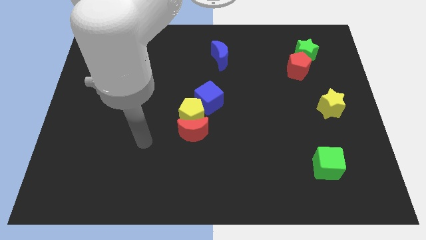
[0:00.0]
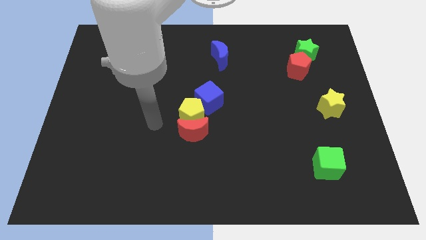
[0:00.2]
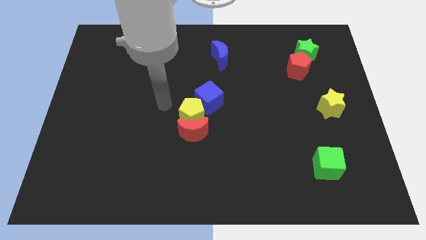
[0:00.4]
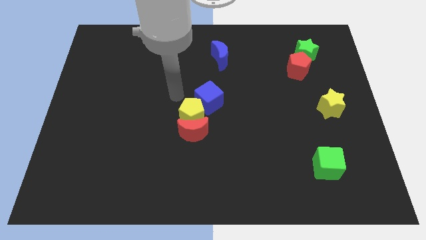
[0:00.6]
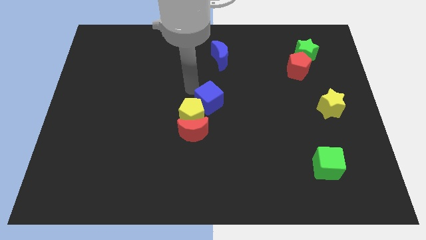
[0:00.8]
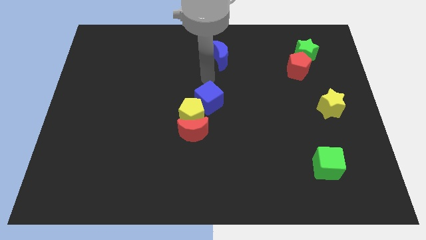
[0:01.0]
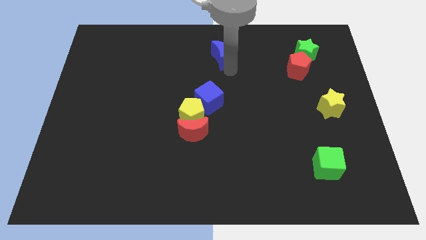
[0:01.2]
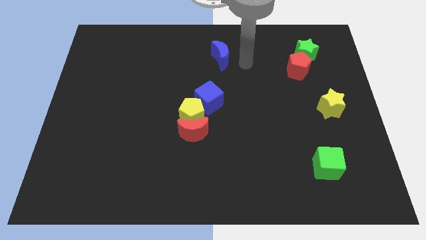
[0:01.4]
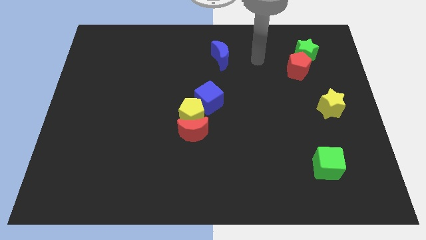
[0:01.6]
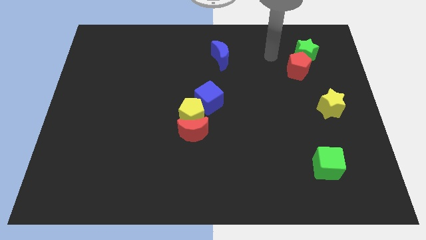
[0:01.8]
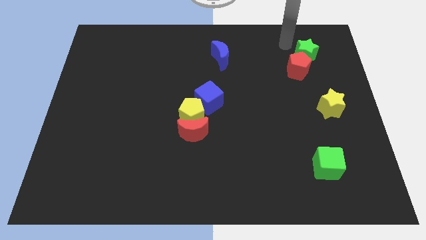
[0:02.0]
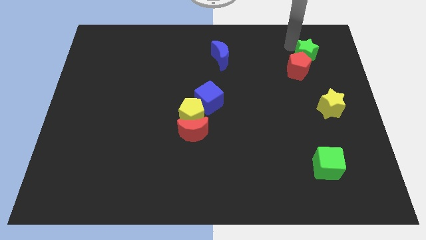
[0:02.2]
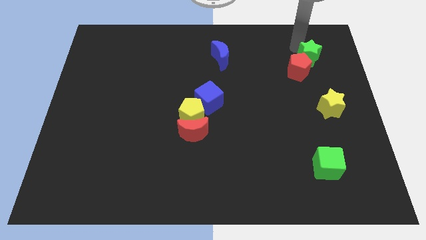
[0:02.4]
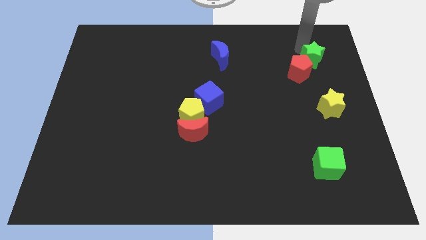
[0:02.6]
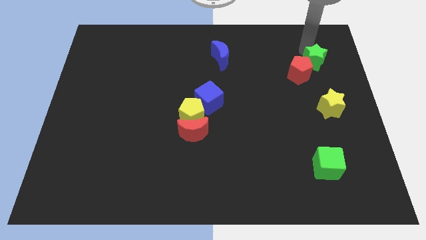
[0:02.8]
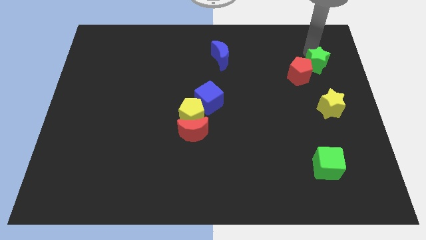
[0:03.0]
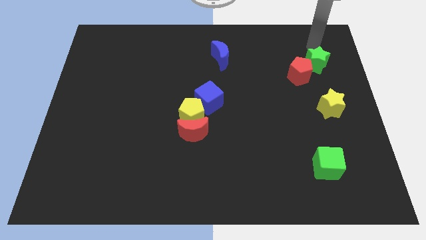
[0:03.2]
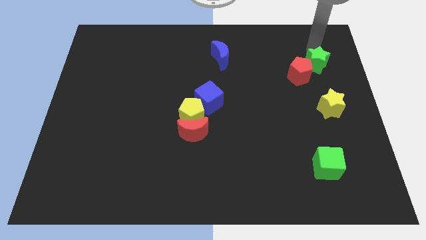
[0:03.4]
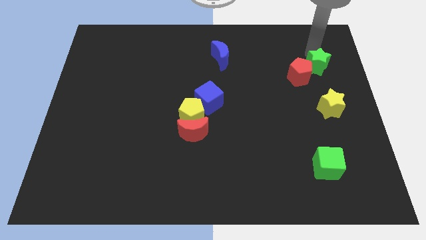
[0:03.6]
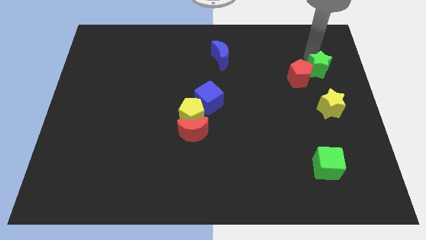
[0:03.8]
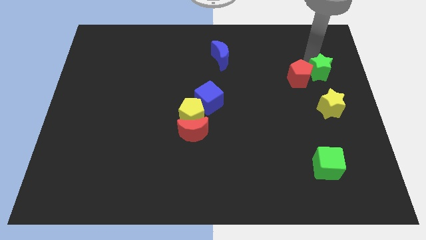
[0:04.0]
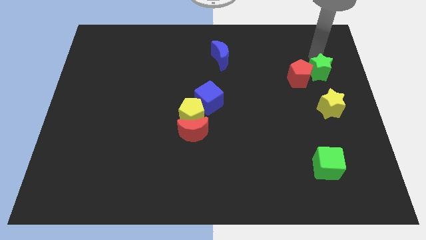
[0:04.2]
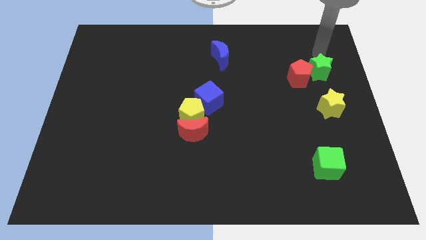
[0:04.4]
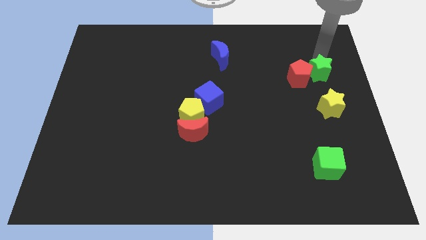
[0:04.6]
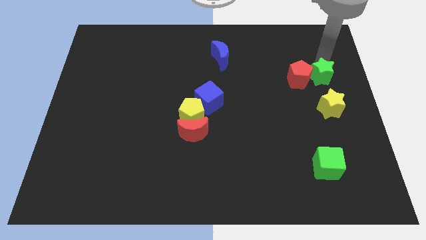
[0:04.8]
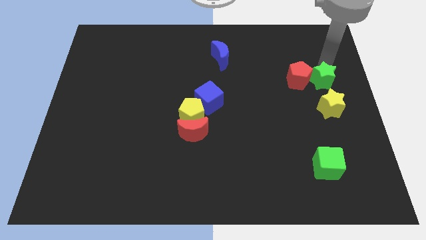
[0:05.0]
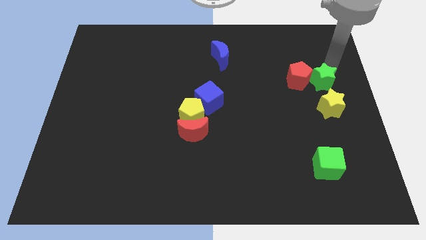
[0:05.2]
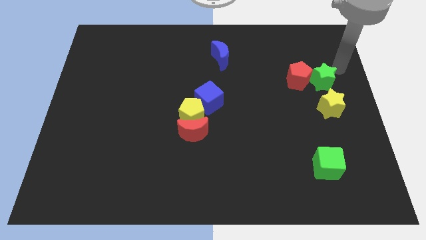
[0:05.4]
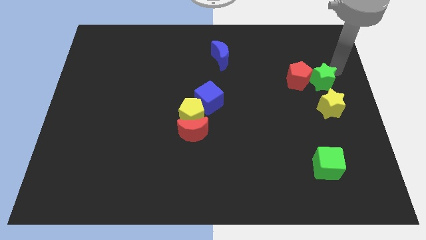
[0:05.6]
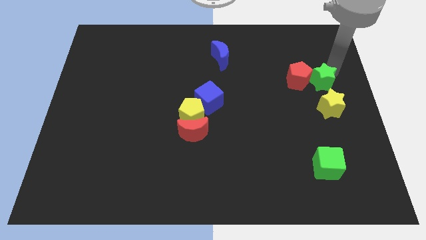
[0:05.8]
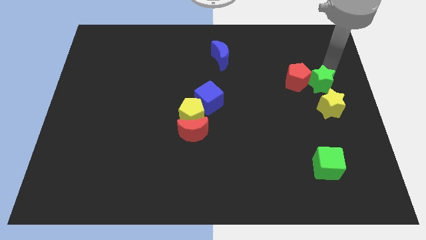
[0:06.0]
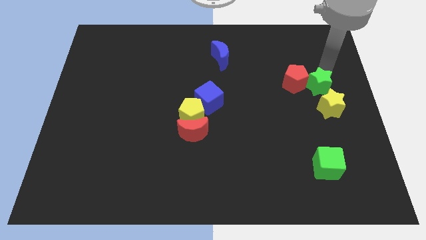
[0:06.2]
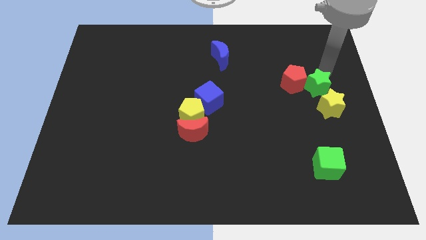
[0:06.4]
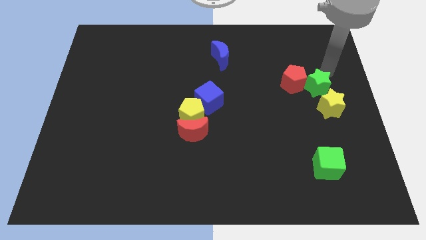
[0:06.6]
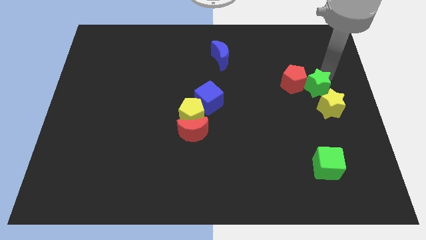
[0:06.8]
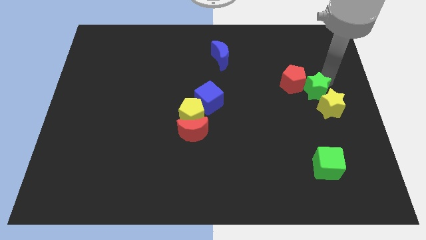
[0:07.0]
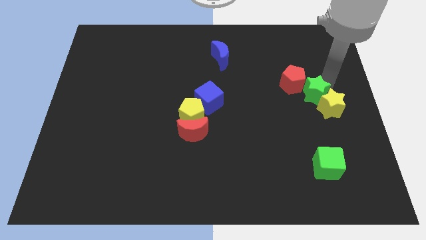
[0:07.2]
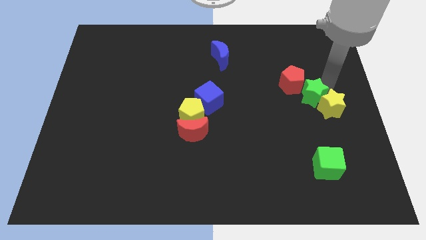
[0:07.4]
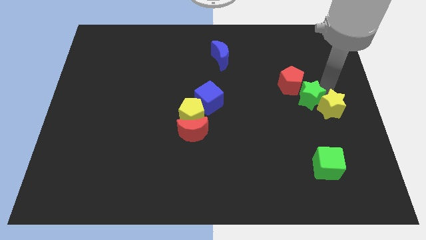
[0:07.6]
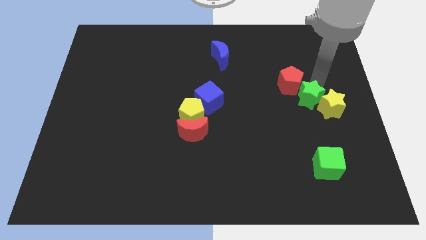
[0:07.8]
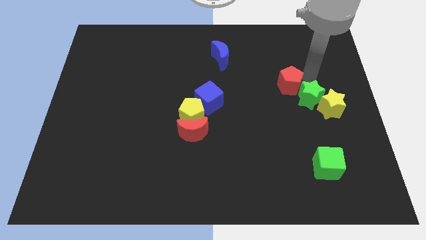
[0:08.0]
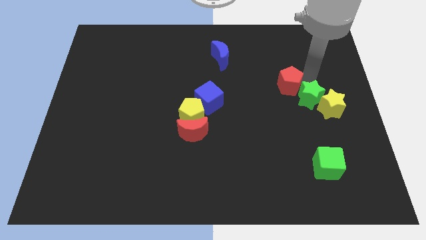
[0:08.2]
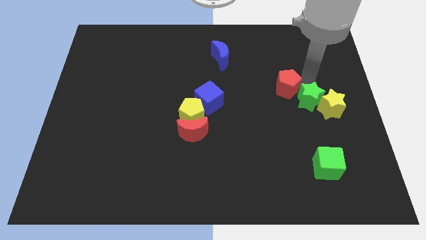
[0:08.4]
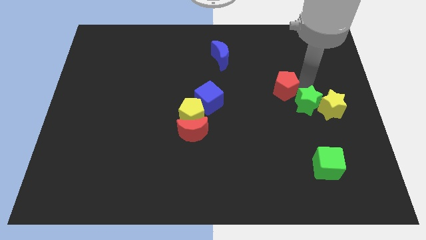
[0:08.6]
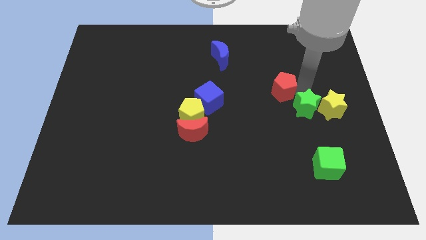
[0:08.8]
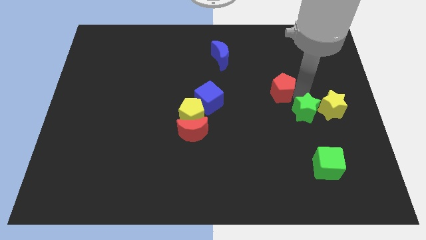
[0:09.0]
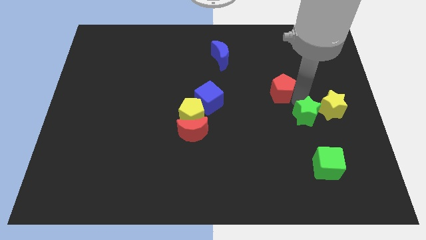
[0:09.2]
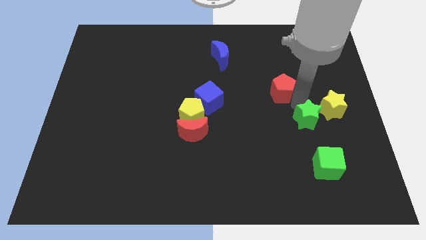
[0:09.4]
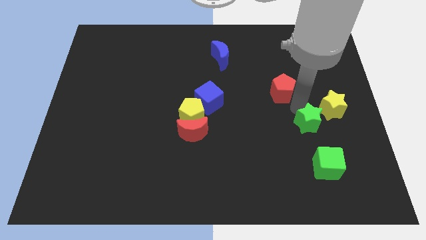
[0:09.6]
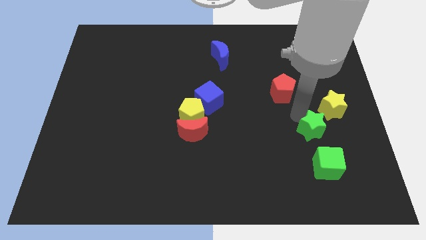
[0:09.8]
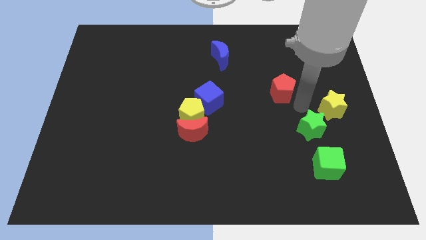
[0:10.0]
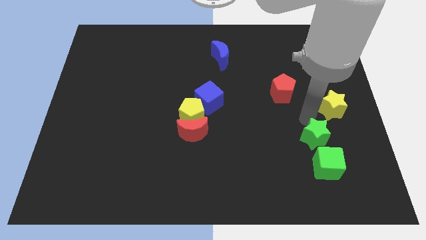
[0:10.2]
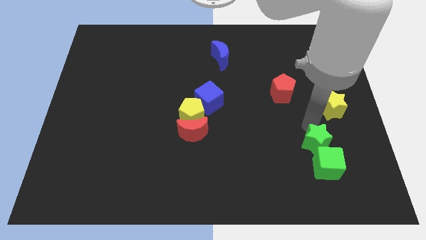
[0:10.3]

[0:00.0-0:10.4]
put the green star close to the green cube

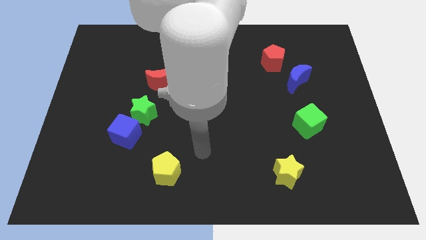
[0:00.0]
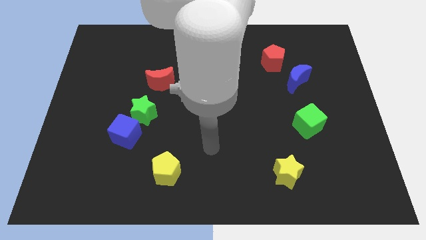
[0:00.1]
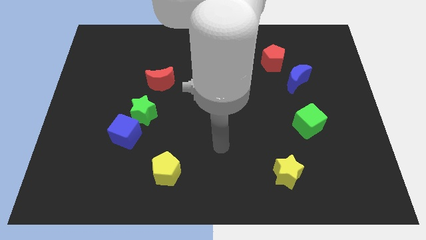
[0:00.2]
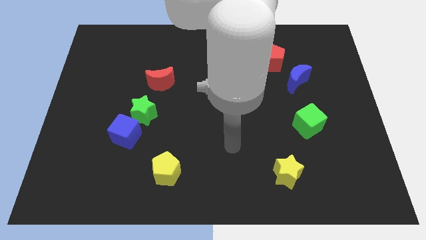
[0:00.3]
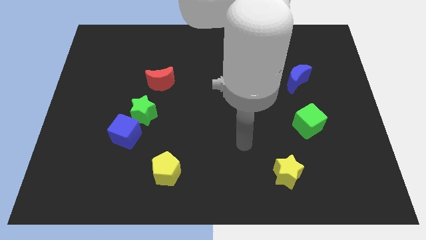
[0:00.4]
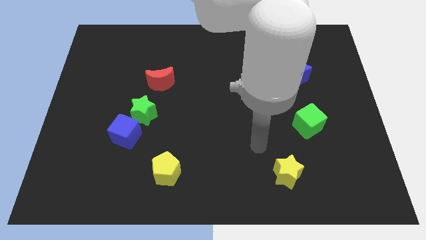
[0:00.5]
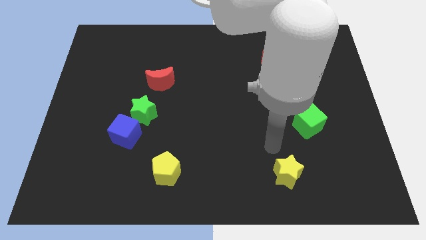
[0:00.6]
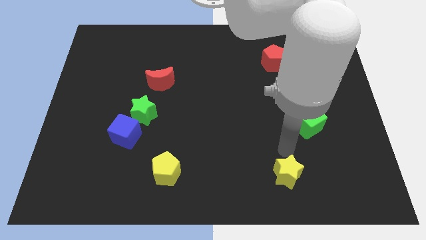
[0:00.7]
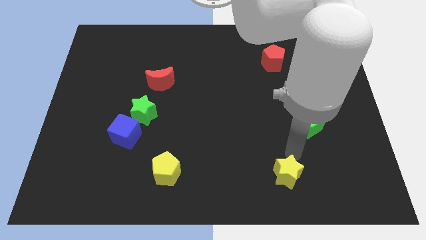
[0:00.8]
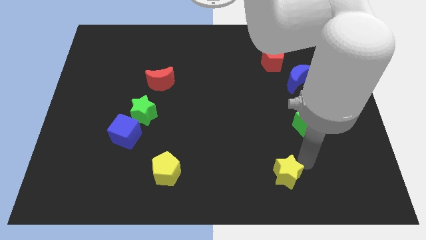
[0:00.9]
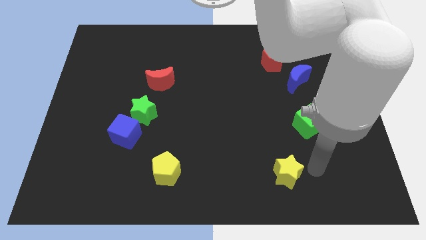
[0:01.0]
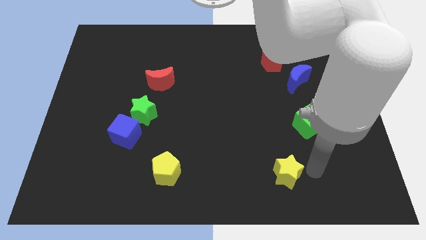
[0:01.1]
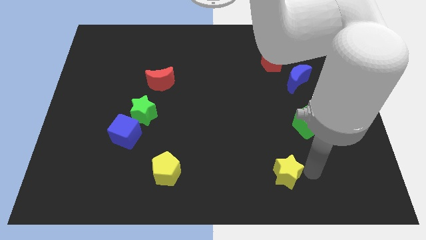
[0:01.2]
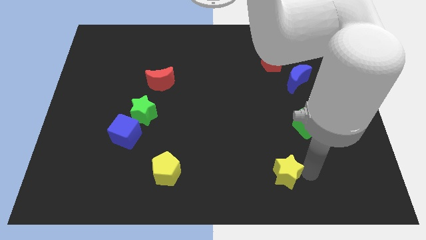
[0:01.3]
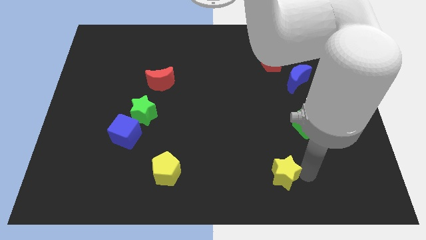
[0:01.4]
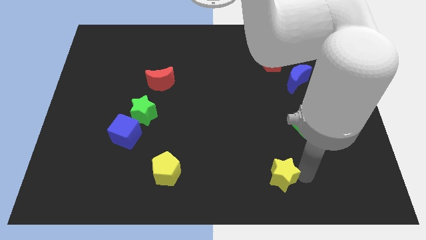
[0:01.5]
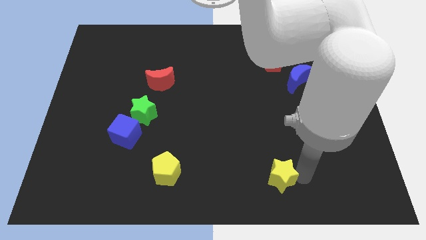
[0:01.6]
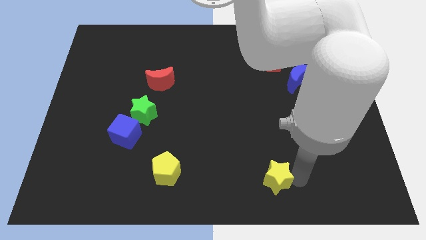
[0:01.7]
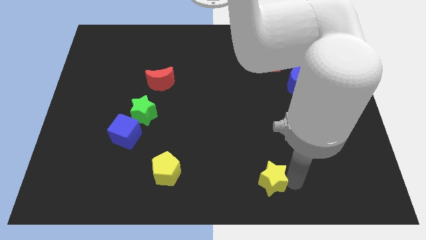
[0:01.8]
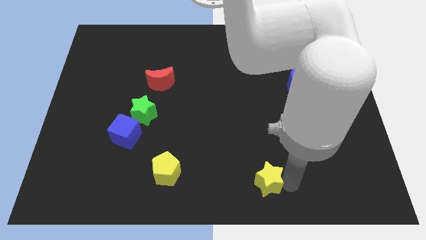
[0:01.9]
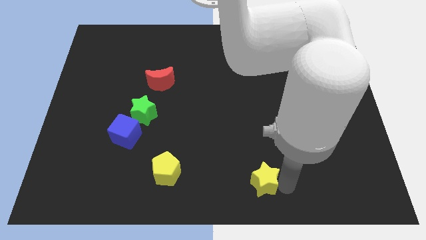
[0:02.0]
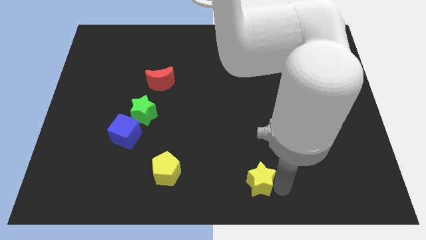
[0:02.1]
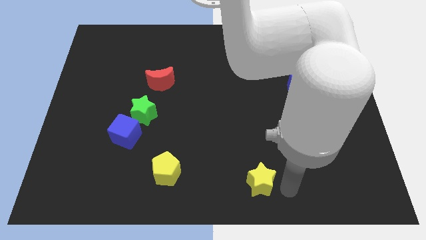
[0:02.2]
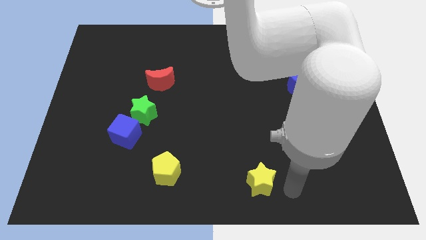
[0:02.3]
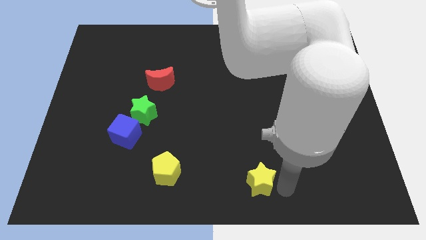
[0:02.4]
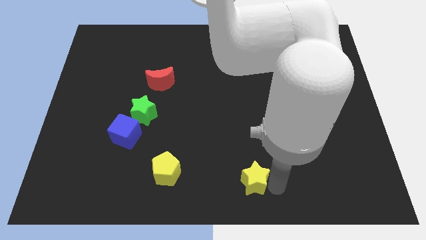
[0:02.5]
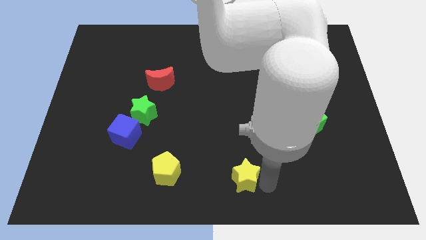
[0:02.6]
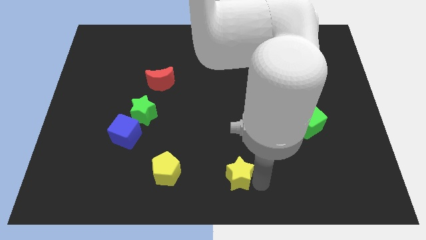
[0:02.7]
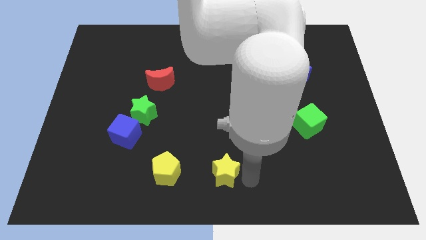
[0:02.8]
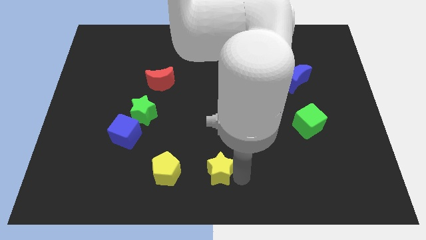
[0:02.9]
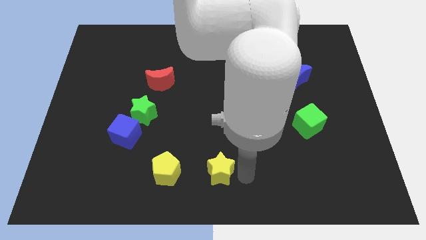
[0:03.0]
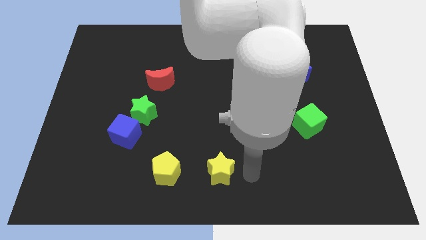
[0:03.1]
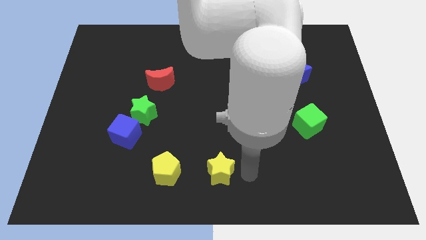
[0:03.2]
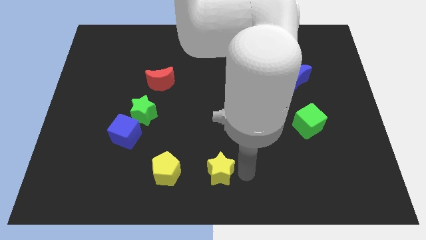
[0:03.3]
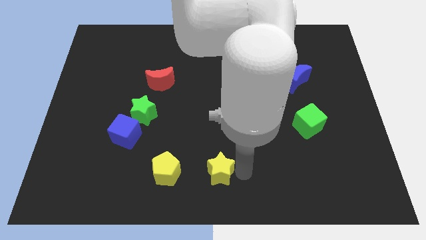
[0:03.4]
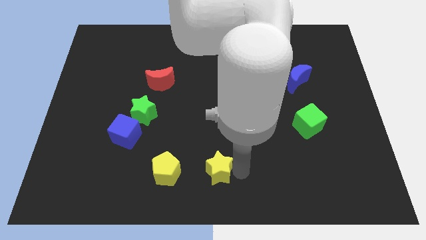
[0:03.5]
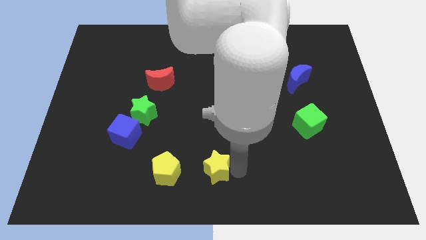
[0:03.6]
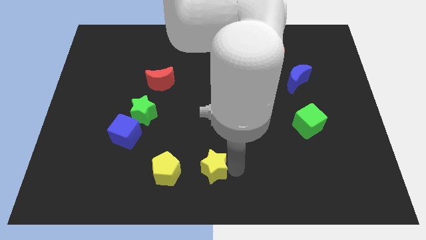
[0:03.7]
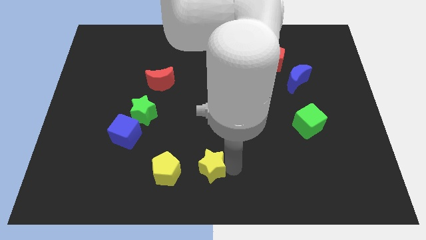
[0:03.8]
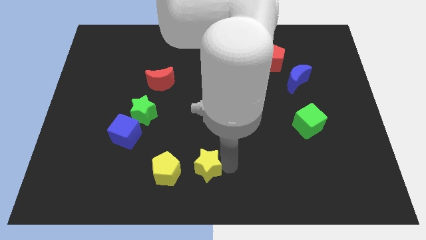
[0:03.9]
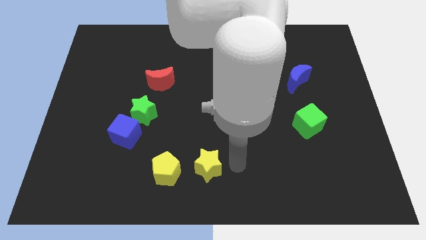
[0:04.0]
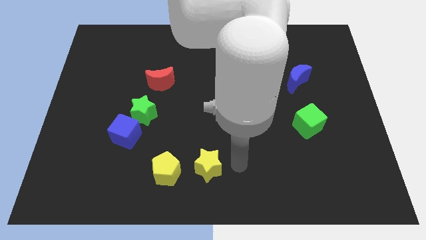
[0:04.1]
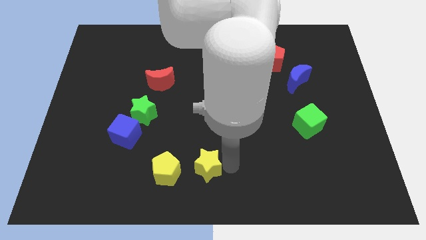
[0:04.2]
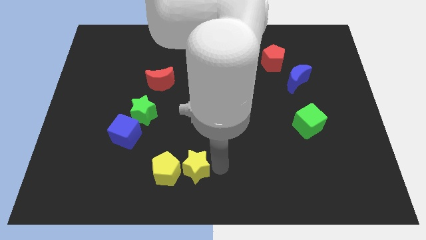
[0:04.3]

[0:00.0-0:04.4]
move the yellow star next to the yellow pentagon
